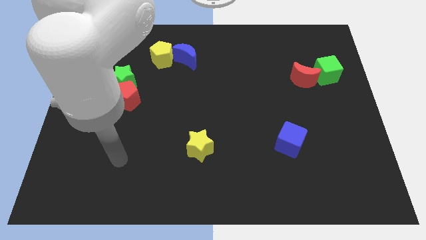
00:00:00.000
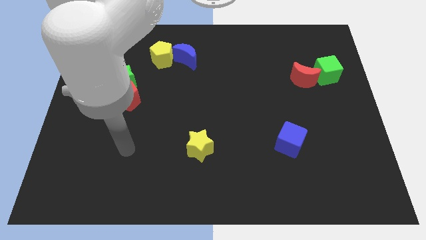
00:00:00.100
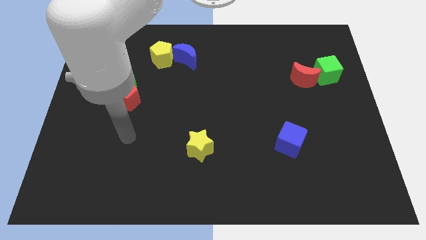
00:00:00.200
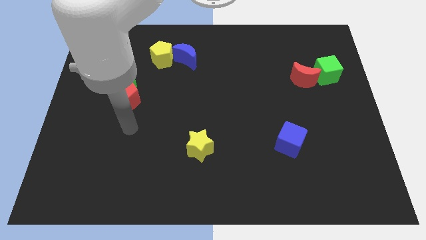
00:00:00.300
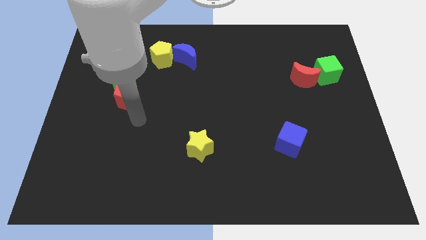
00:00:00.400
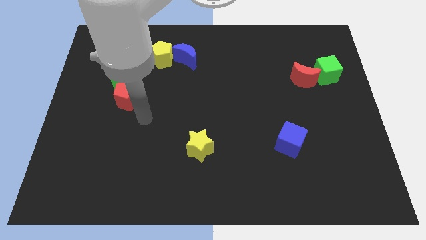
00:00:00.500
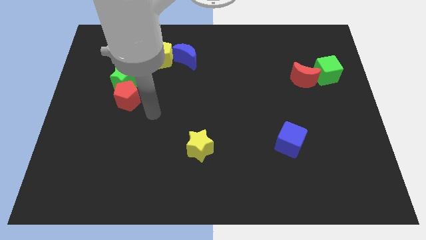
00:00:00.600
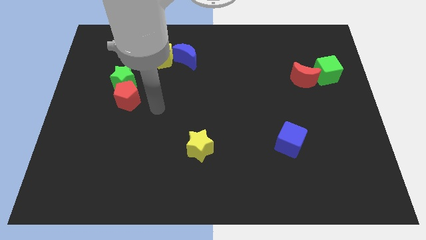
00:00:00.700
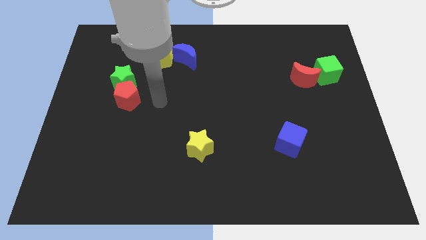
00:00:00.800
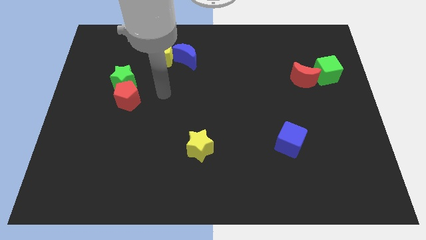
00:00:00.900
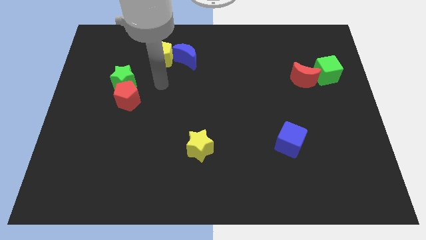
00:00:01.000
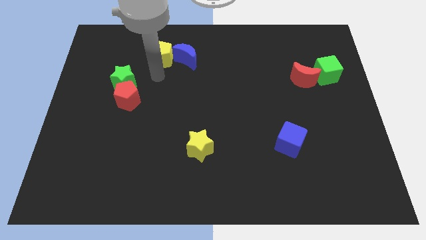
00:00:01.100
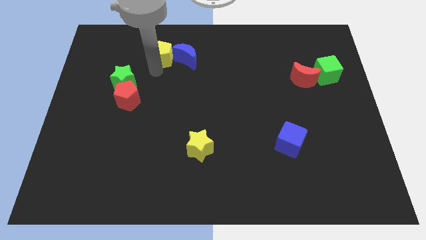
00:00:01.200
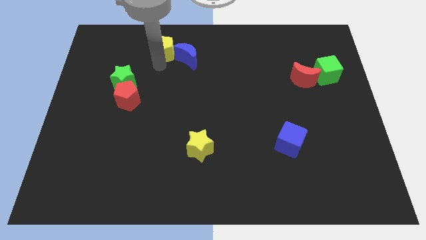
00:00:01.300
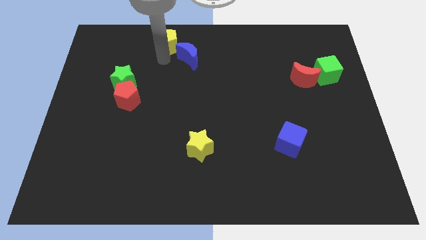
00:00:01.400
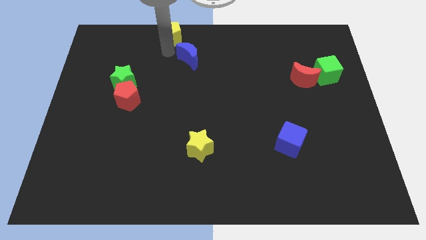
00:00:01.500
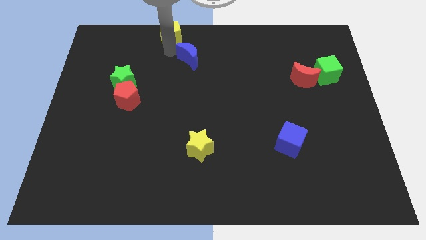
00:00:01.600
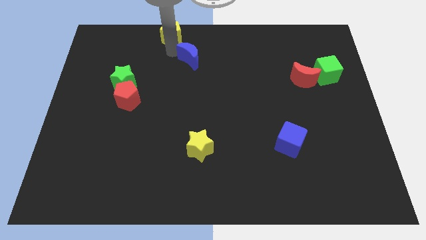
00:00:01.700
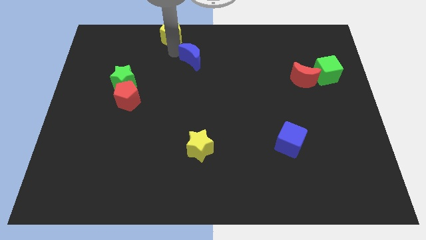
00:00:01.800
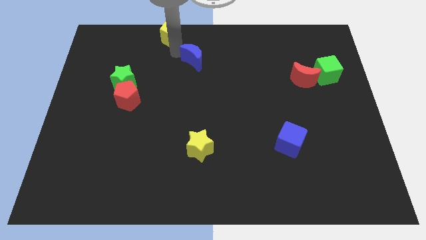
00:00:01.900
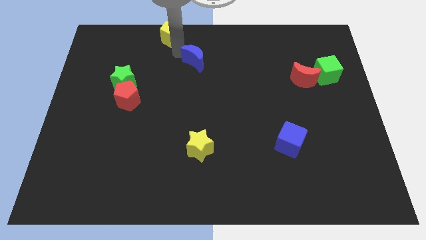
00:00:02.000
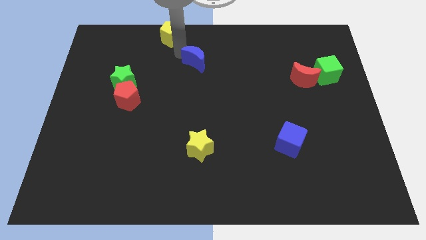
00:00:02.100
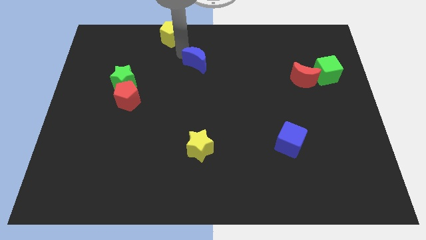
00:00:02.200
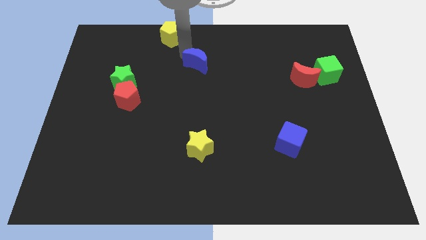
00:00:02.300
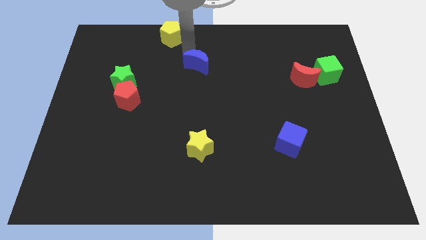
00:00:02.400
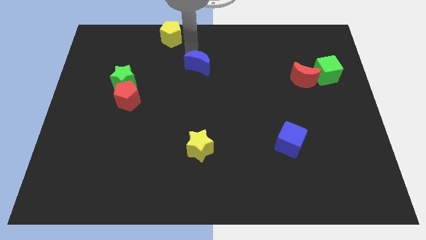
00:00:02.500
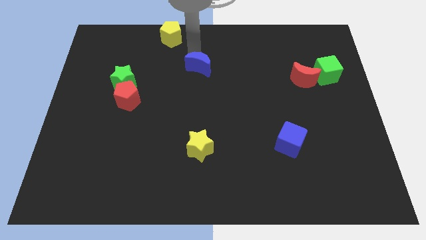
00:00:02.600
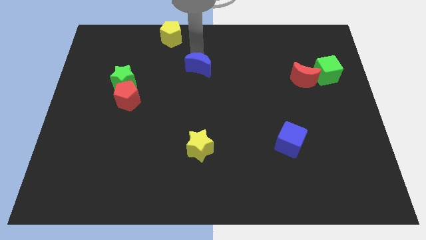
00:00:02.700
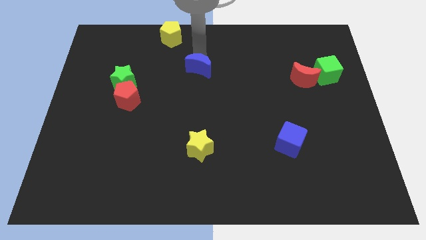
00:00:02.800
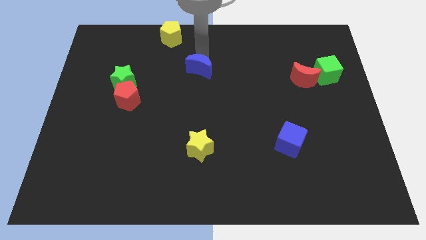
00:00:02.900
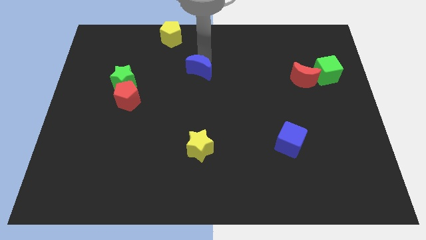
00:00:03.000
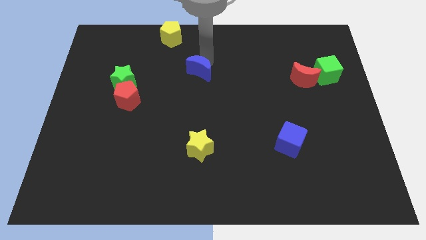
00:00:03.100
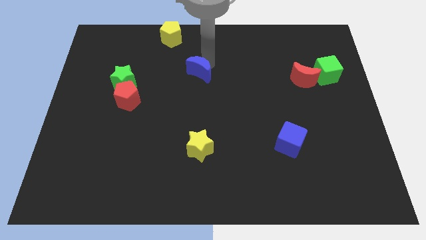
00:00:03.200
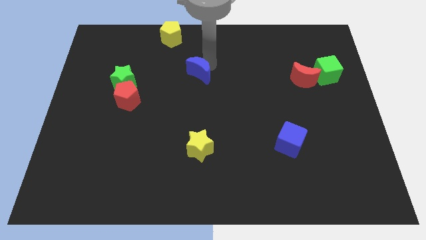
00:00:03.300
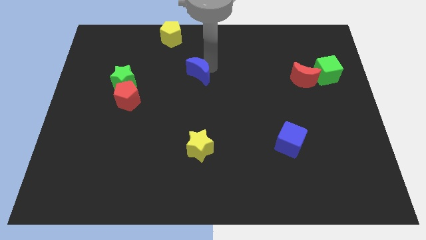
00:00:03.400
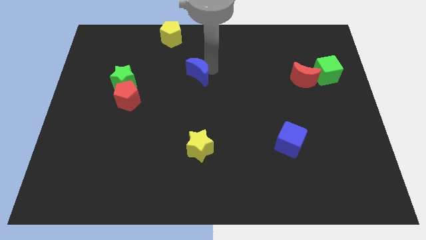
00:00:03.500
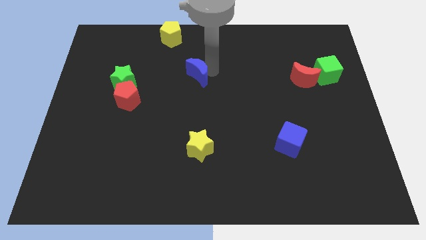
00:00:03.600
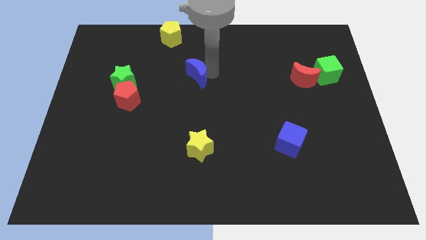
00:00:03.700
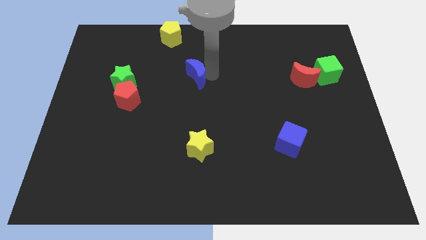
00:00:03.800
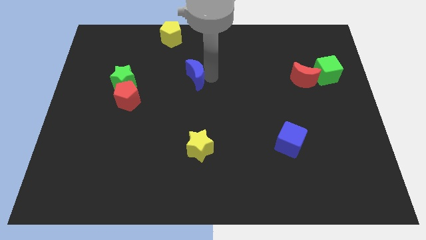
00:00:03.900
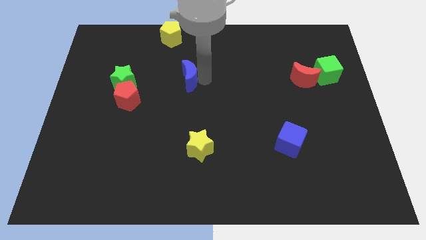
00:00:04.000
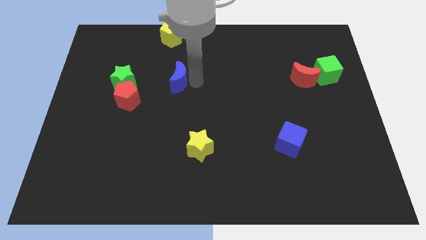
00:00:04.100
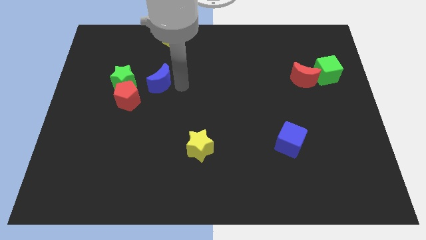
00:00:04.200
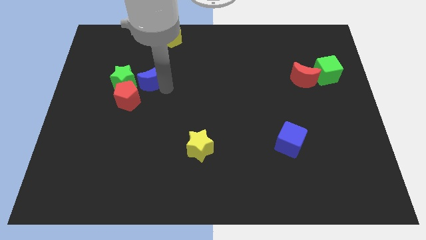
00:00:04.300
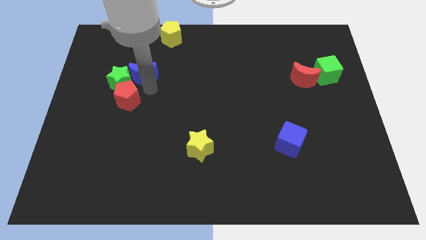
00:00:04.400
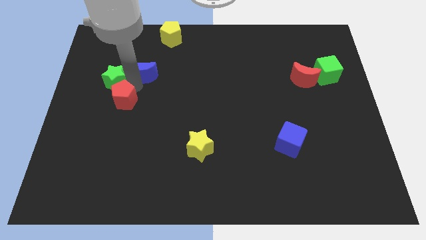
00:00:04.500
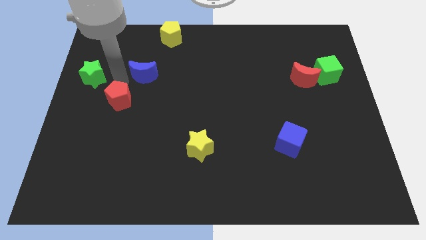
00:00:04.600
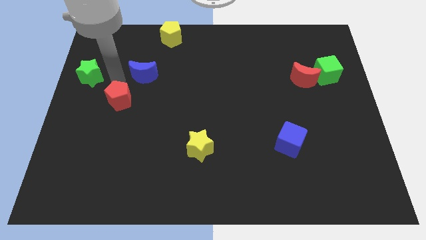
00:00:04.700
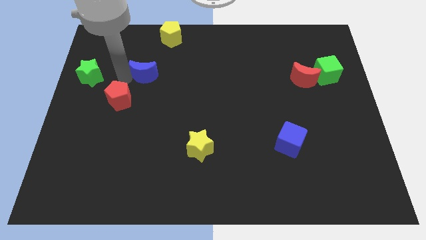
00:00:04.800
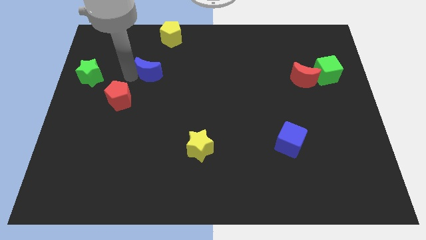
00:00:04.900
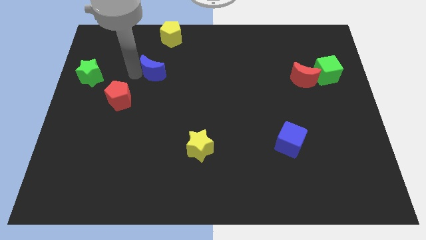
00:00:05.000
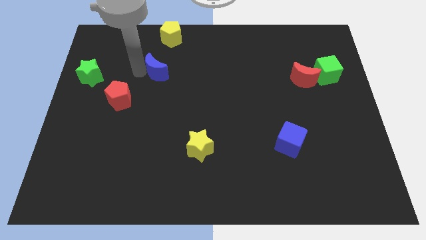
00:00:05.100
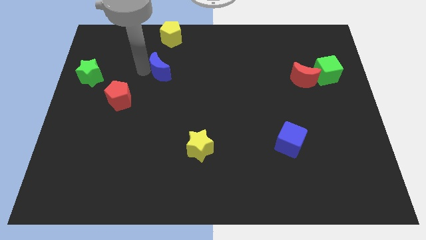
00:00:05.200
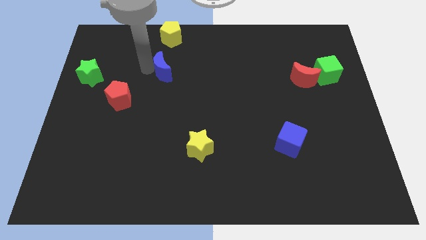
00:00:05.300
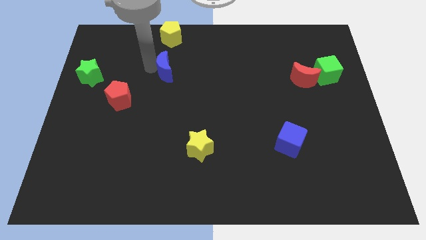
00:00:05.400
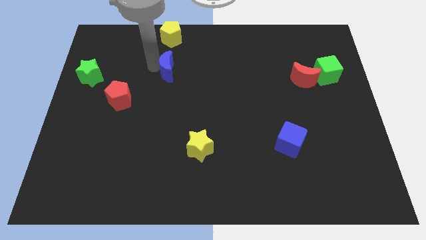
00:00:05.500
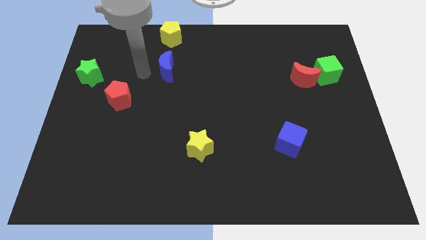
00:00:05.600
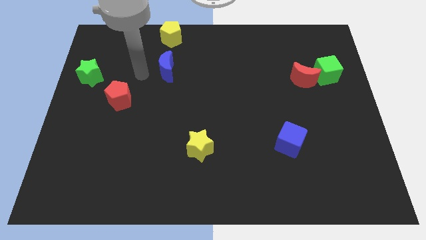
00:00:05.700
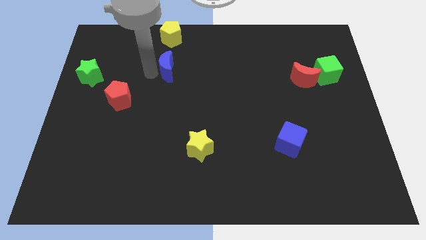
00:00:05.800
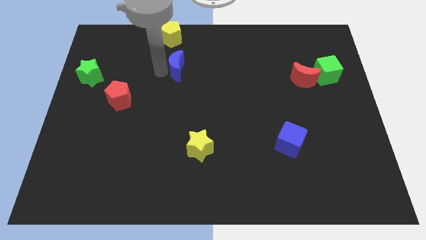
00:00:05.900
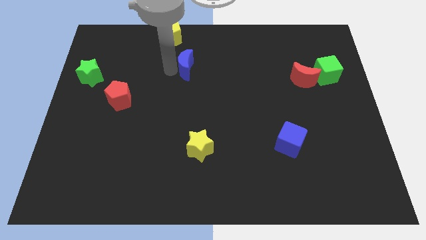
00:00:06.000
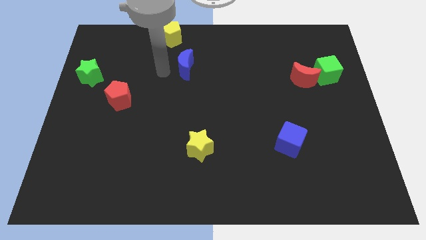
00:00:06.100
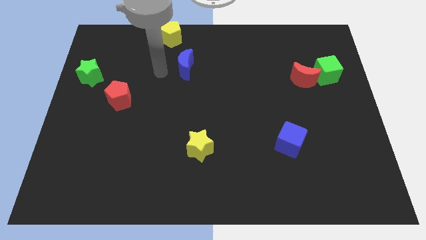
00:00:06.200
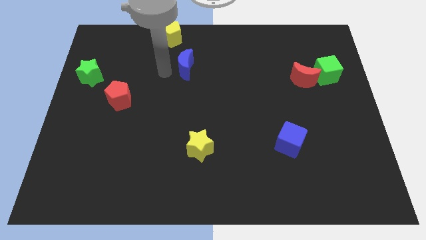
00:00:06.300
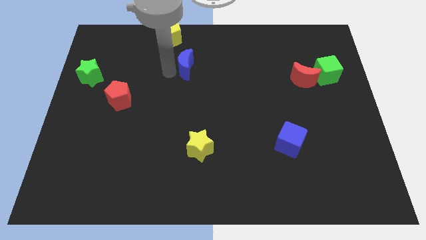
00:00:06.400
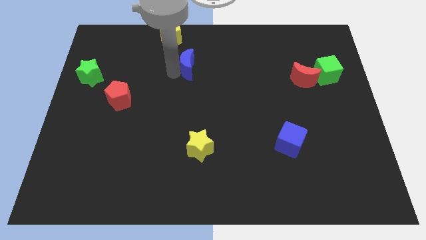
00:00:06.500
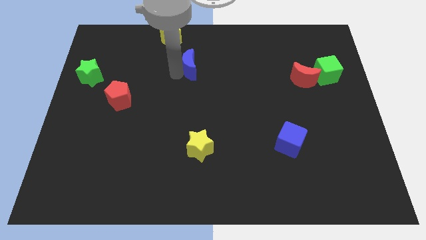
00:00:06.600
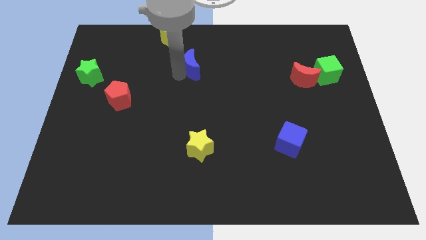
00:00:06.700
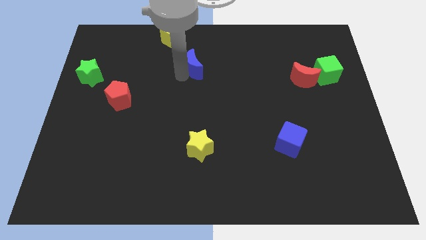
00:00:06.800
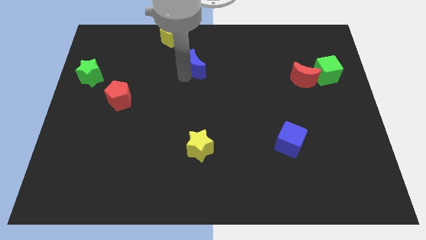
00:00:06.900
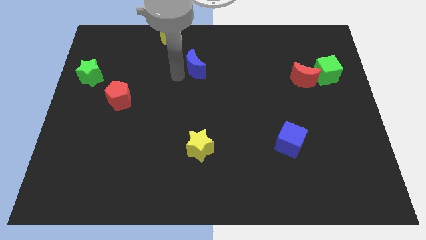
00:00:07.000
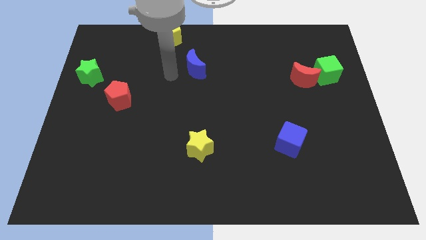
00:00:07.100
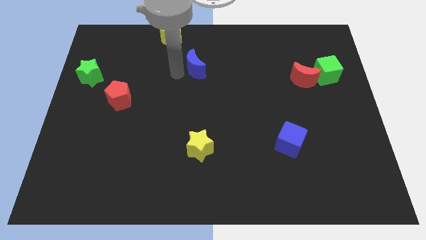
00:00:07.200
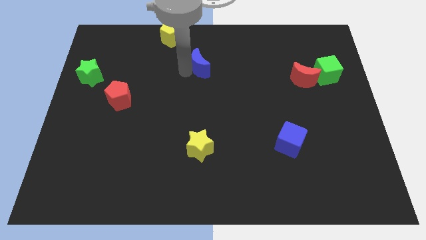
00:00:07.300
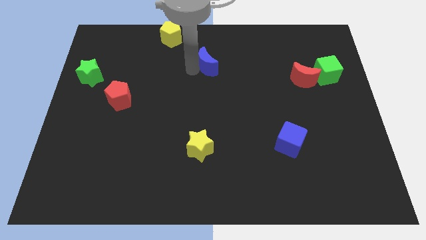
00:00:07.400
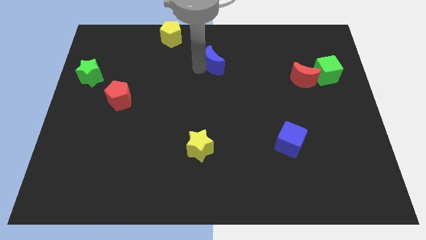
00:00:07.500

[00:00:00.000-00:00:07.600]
slightly slide the blue moon right

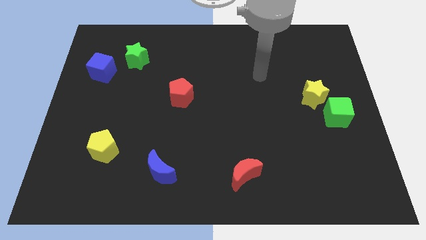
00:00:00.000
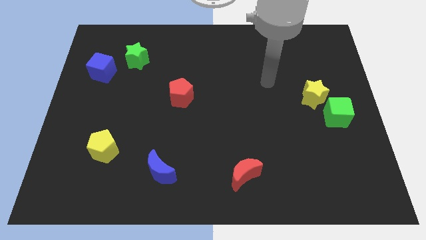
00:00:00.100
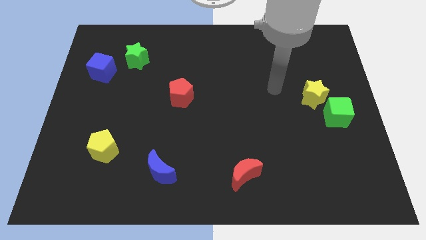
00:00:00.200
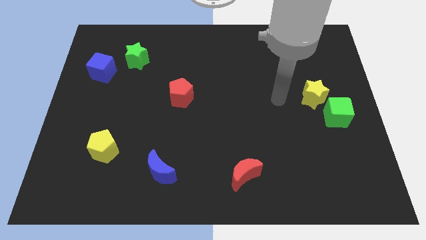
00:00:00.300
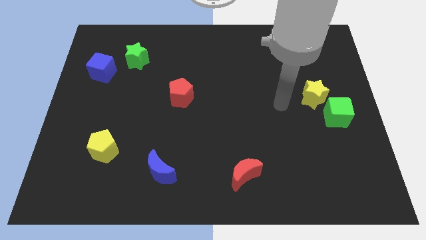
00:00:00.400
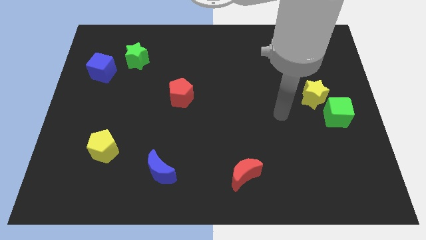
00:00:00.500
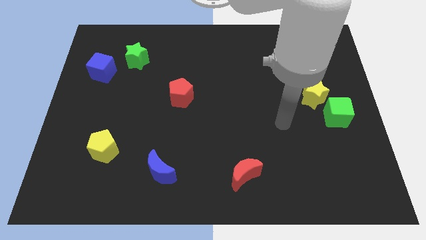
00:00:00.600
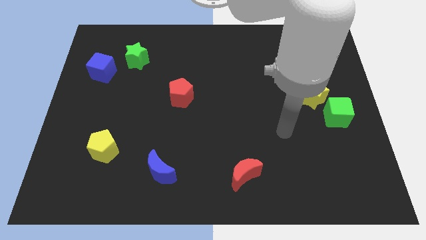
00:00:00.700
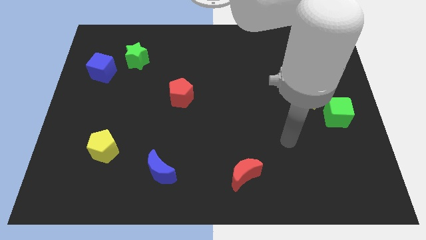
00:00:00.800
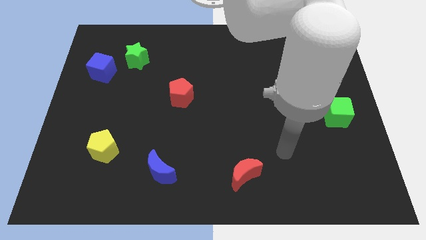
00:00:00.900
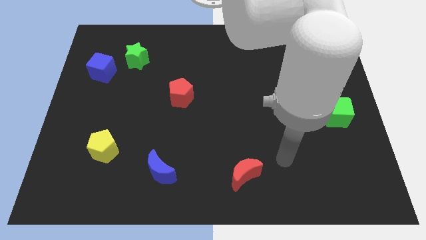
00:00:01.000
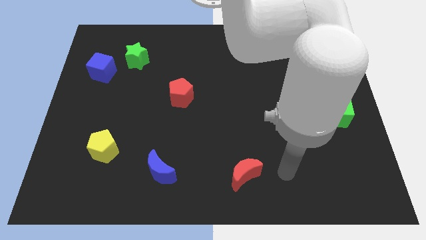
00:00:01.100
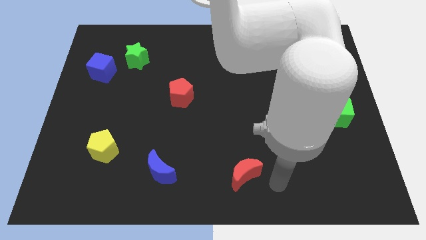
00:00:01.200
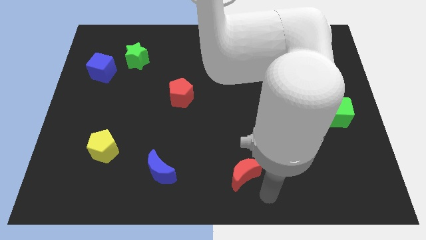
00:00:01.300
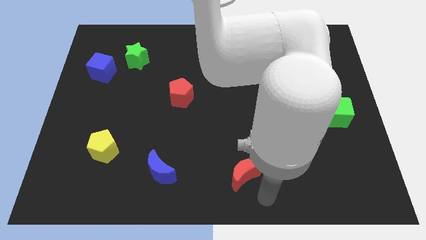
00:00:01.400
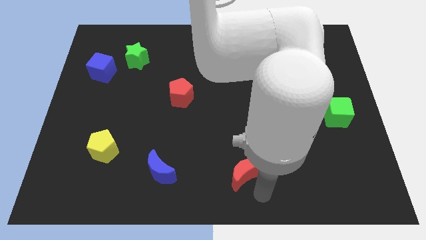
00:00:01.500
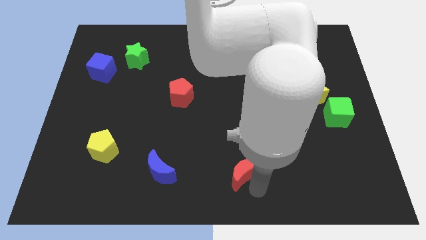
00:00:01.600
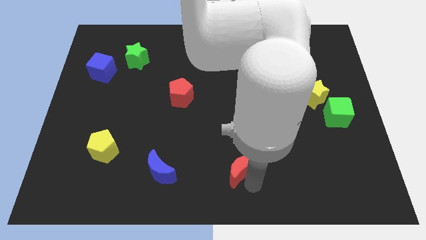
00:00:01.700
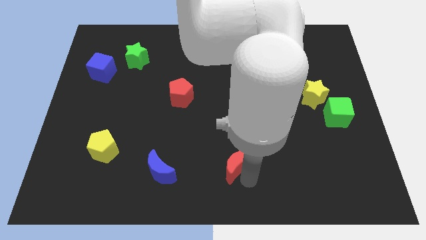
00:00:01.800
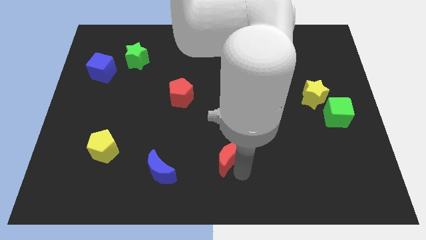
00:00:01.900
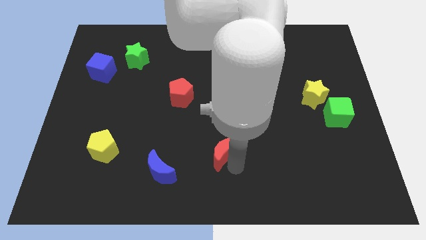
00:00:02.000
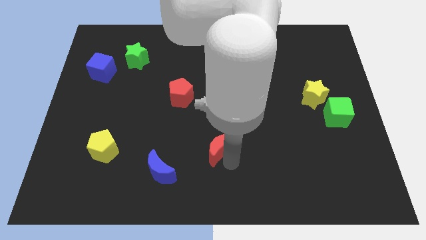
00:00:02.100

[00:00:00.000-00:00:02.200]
slide the red moon somewhat upwards and then left
